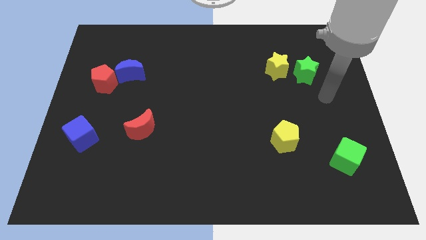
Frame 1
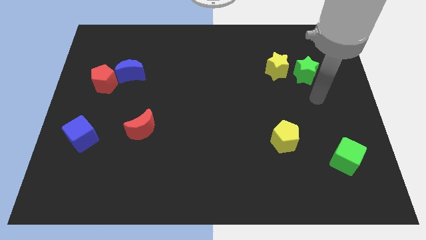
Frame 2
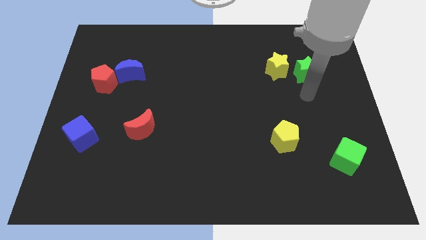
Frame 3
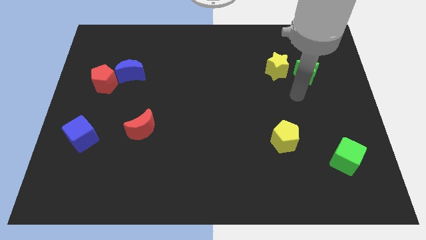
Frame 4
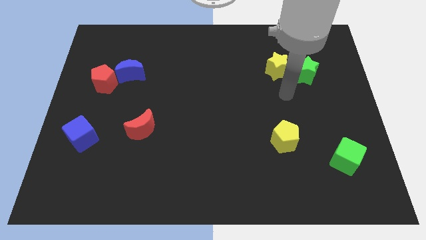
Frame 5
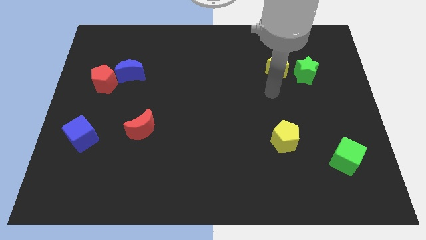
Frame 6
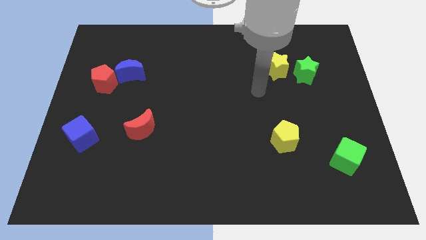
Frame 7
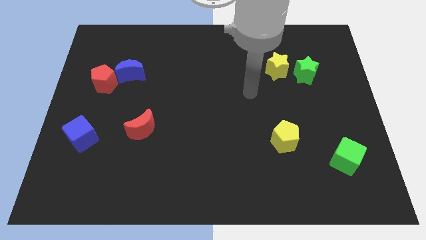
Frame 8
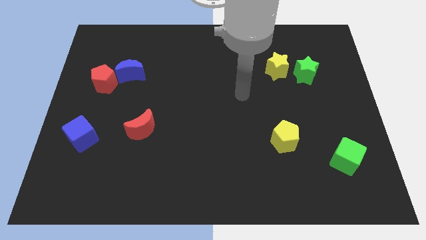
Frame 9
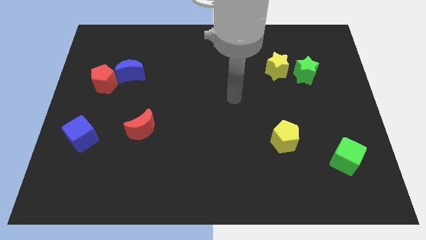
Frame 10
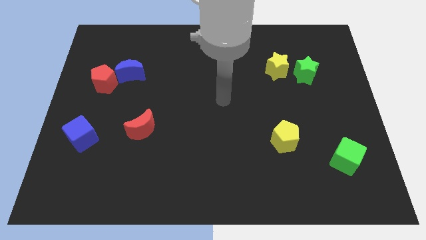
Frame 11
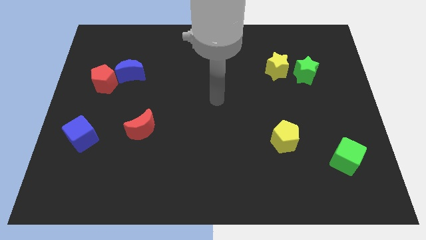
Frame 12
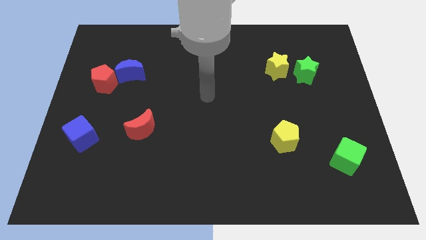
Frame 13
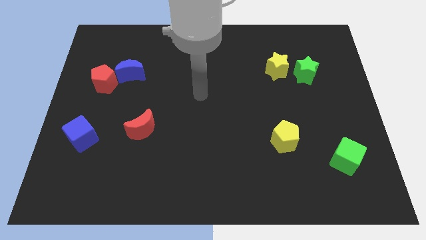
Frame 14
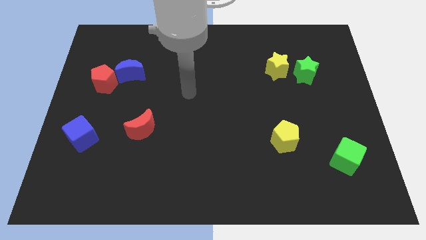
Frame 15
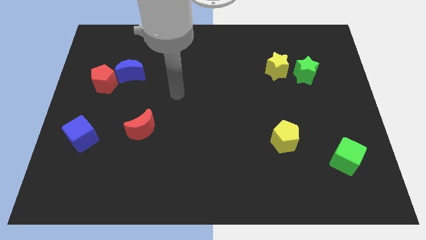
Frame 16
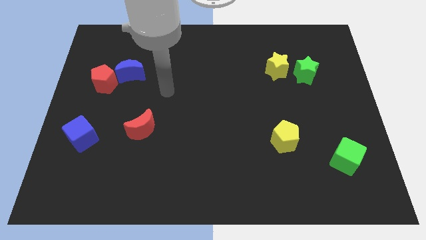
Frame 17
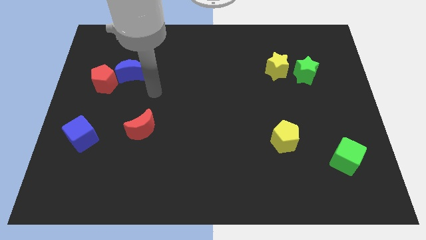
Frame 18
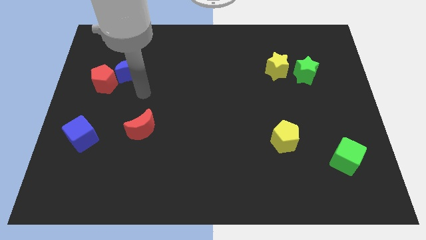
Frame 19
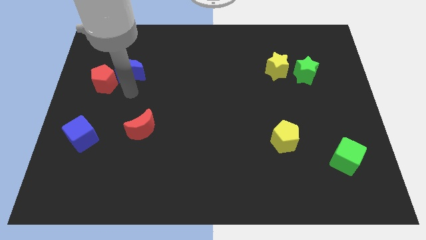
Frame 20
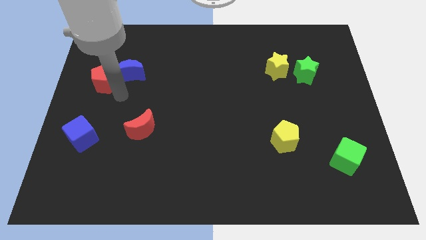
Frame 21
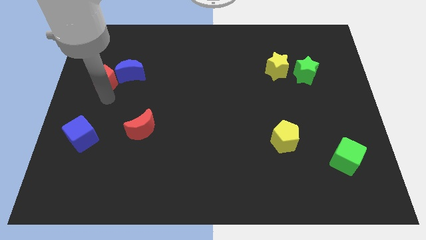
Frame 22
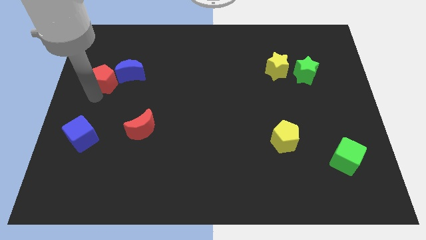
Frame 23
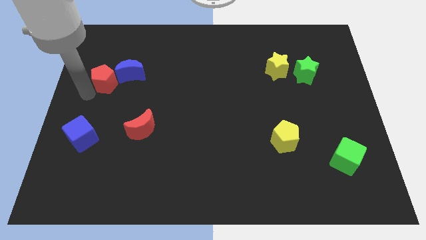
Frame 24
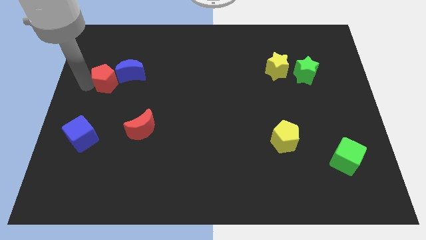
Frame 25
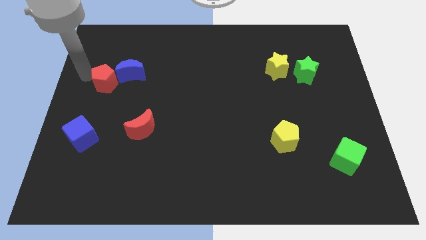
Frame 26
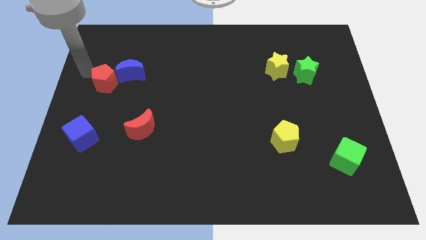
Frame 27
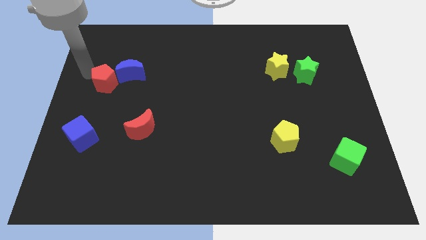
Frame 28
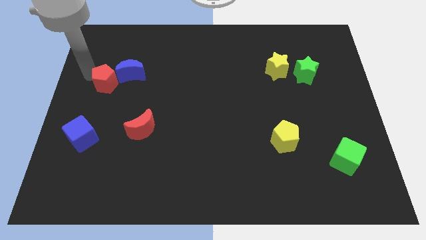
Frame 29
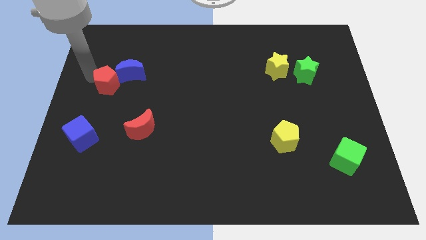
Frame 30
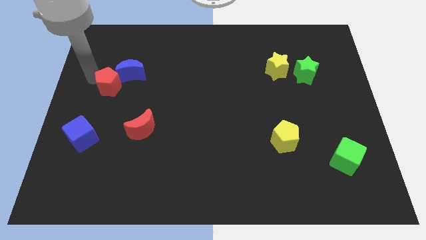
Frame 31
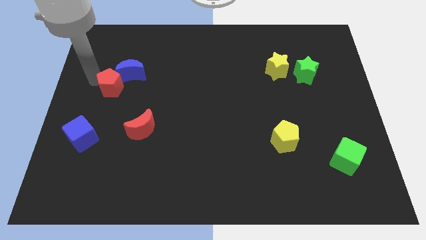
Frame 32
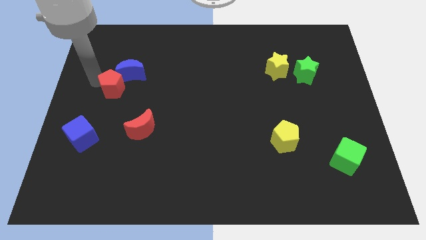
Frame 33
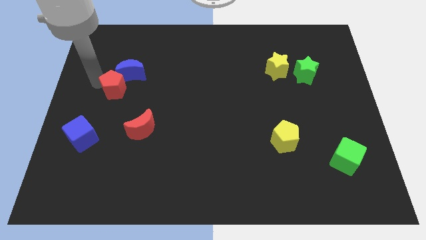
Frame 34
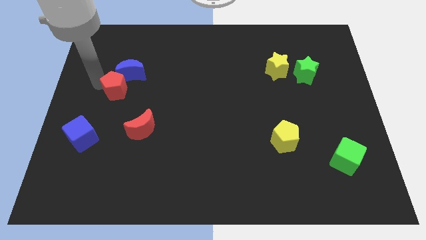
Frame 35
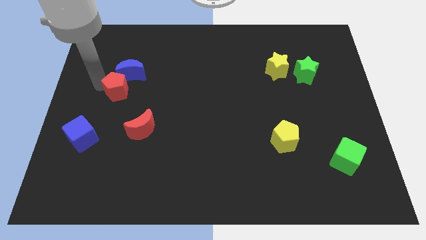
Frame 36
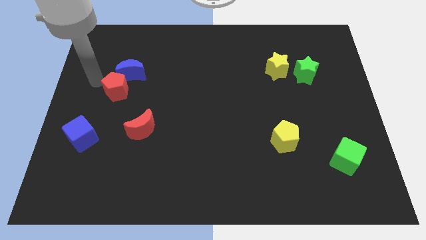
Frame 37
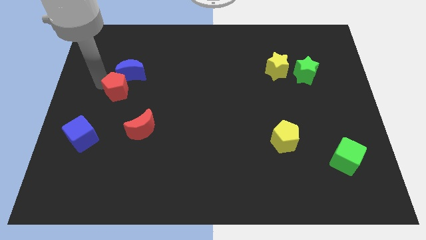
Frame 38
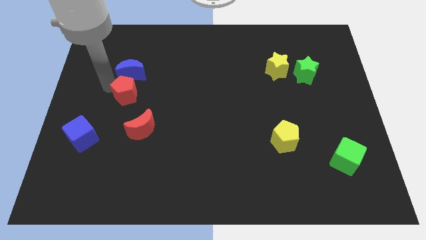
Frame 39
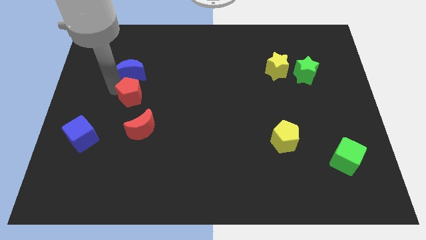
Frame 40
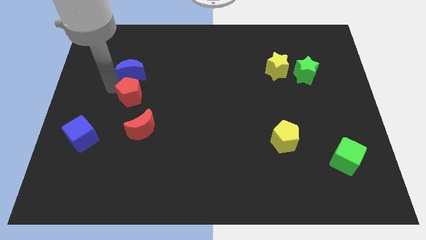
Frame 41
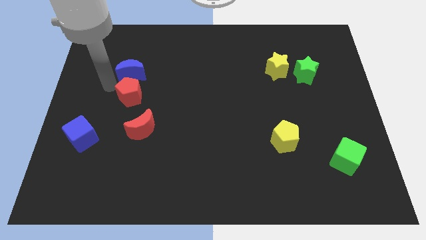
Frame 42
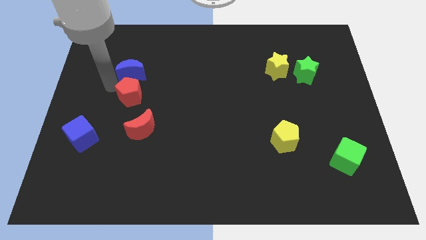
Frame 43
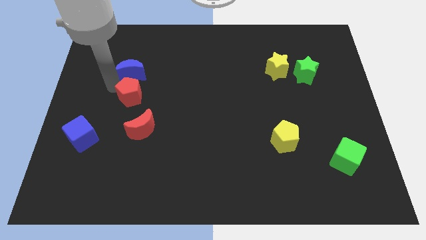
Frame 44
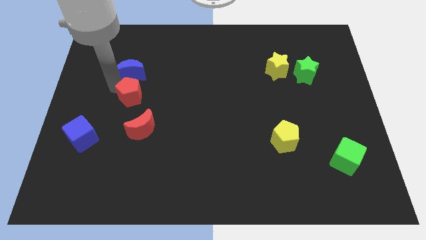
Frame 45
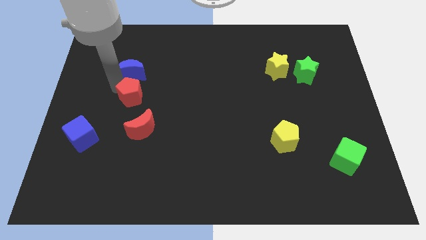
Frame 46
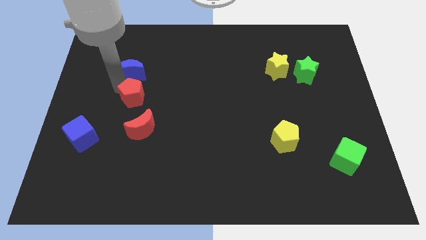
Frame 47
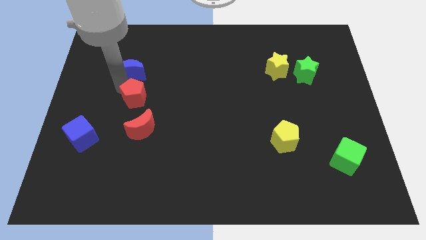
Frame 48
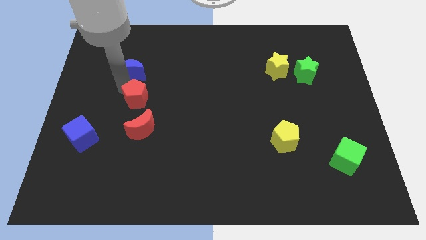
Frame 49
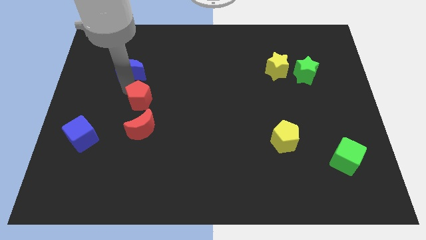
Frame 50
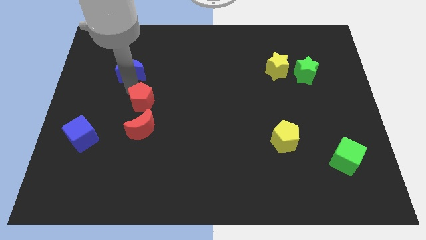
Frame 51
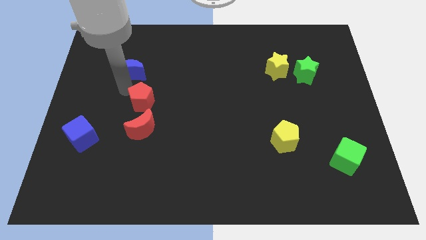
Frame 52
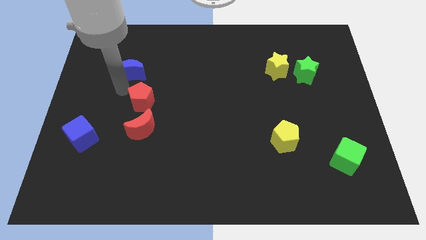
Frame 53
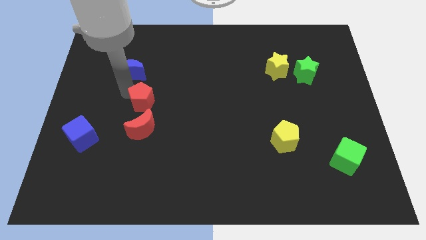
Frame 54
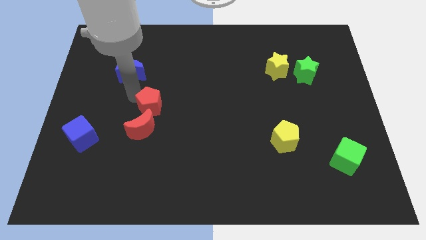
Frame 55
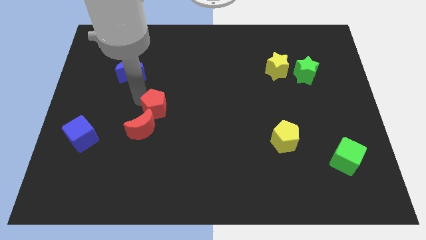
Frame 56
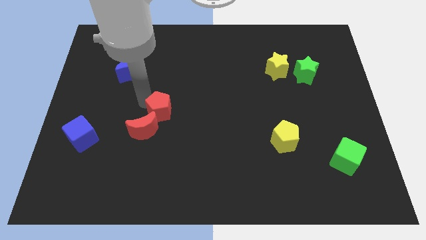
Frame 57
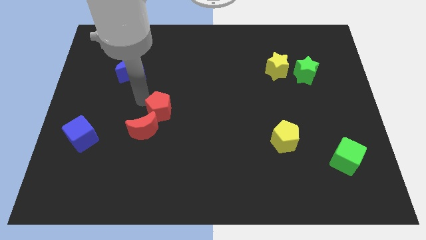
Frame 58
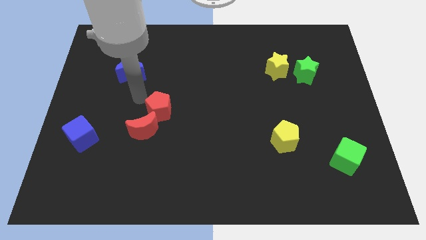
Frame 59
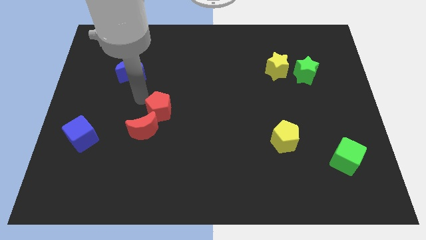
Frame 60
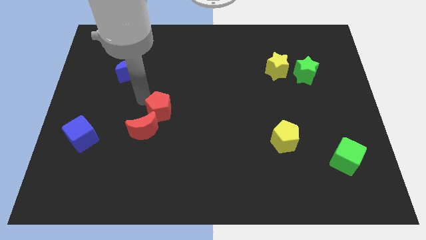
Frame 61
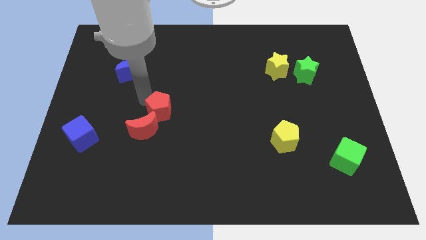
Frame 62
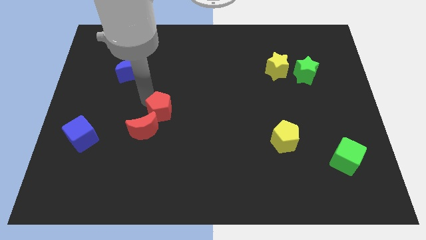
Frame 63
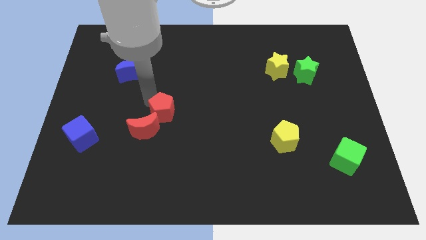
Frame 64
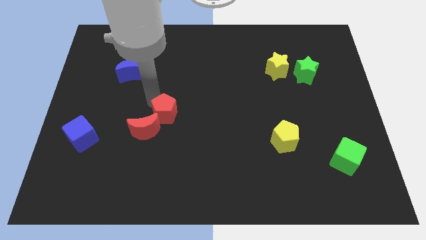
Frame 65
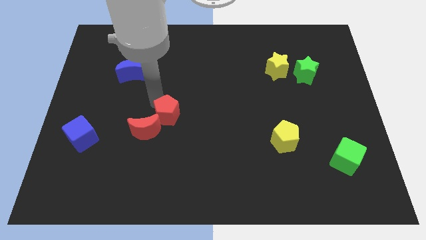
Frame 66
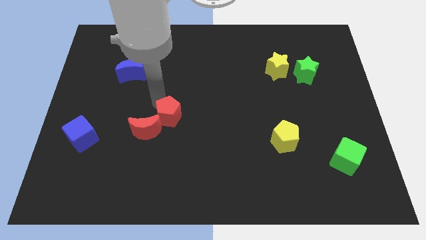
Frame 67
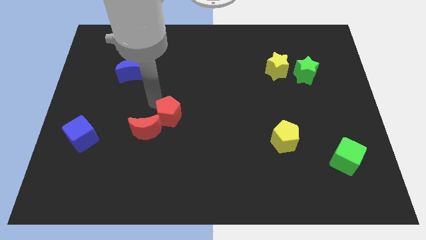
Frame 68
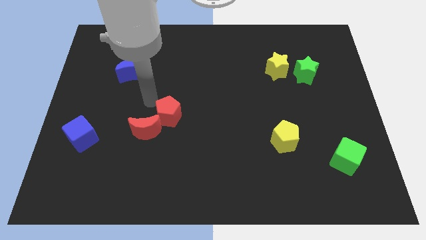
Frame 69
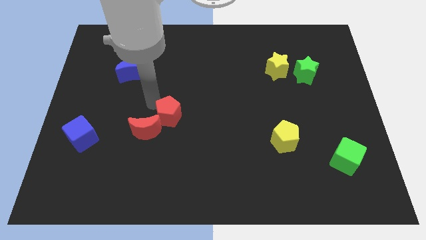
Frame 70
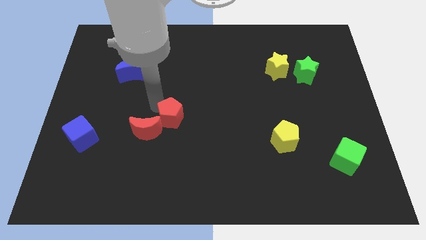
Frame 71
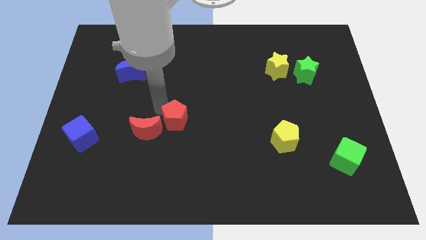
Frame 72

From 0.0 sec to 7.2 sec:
push the red pentagon diagonally down and right

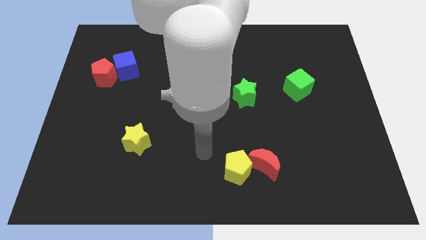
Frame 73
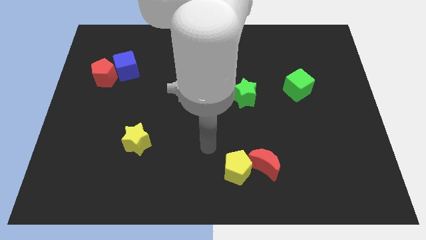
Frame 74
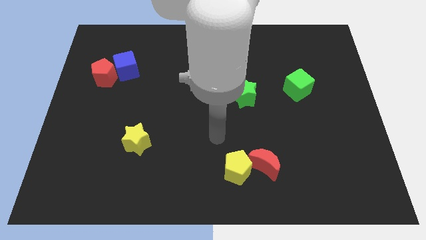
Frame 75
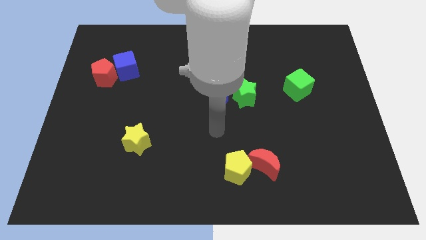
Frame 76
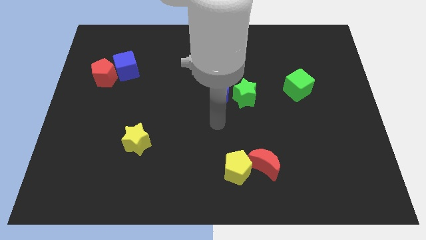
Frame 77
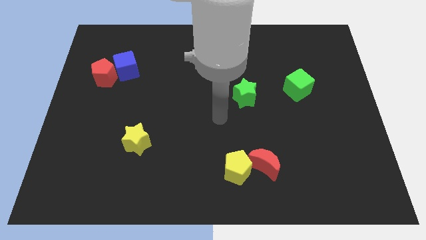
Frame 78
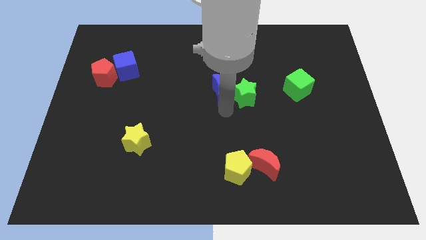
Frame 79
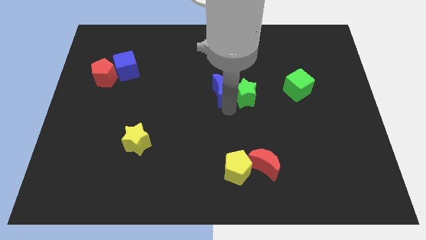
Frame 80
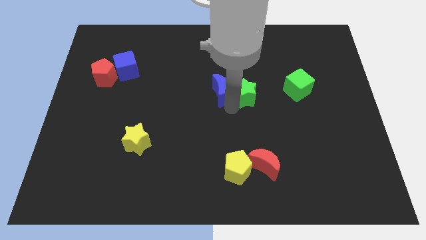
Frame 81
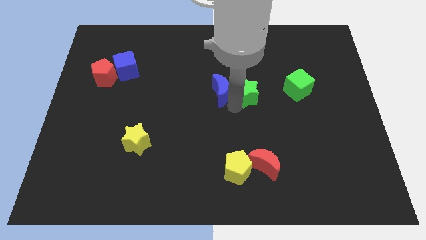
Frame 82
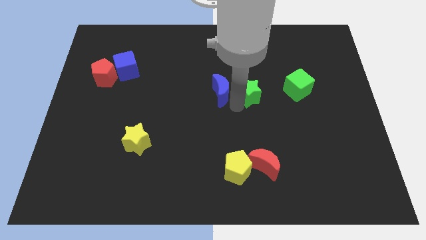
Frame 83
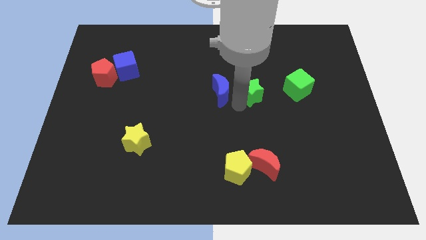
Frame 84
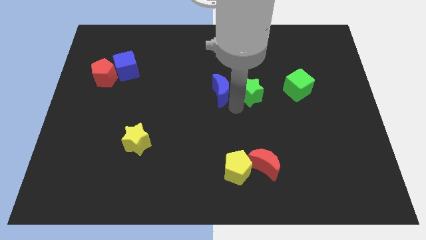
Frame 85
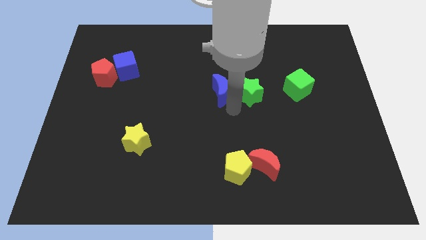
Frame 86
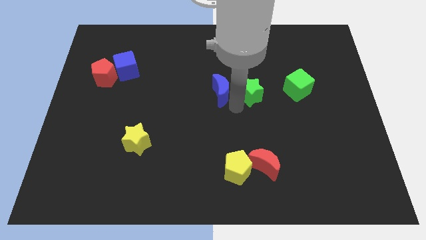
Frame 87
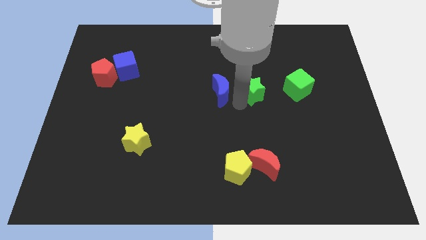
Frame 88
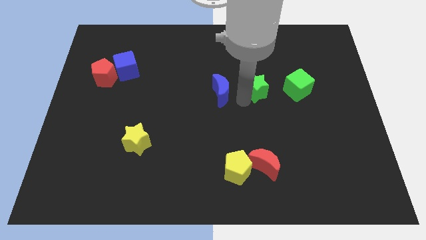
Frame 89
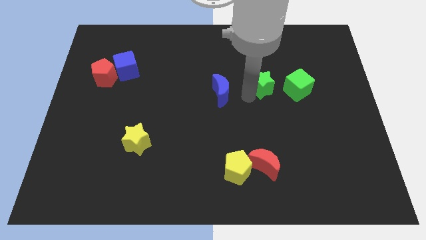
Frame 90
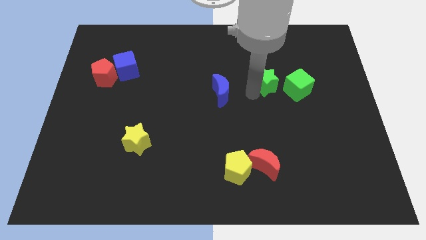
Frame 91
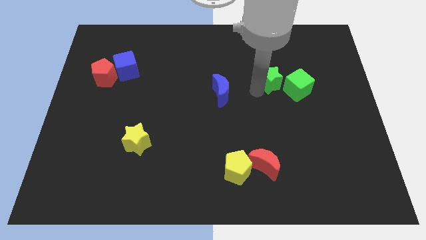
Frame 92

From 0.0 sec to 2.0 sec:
slide the green star diagonally up and right somewhat
